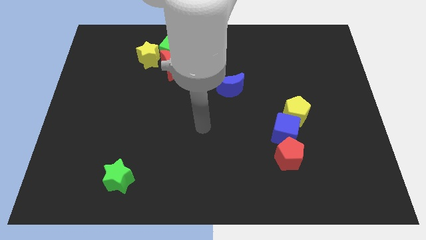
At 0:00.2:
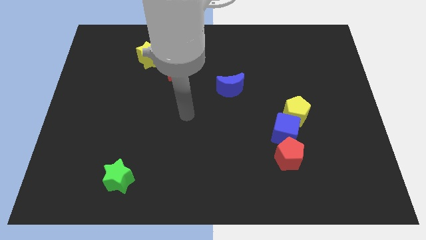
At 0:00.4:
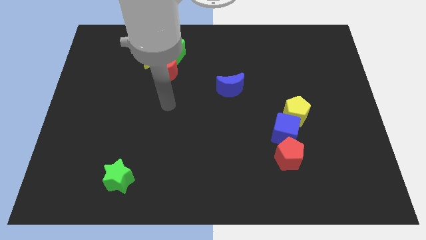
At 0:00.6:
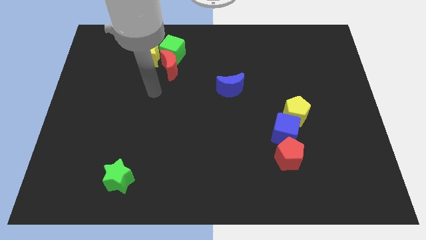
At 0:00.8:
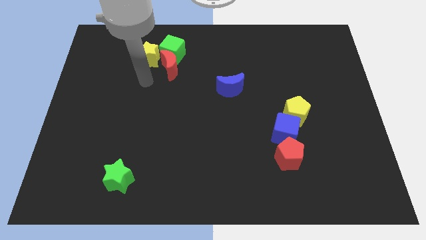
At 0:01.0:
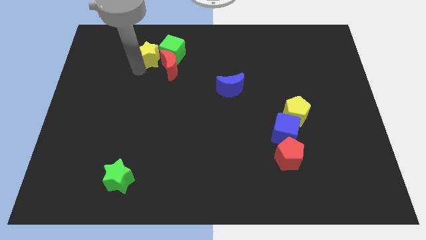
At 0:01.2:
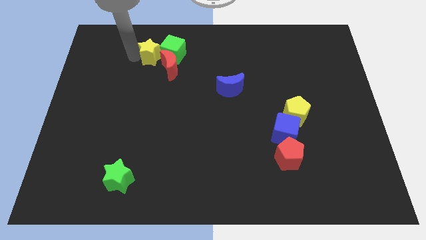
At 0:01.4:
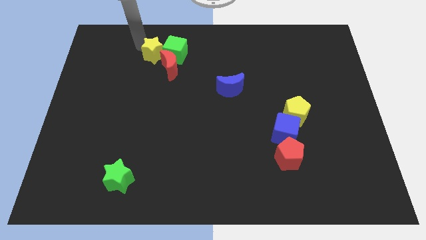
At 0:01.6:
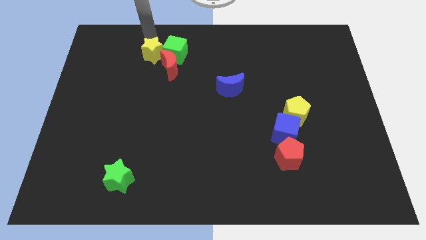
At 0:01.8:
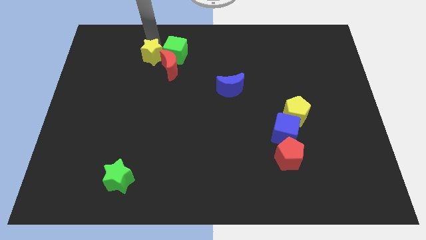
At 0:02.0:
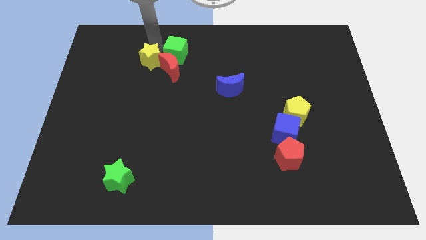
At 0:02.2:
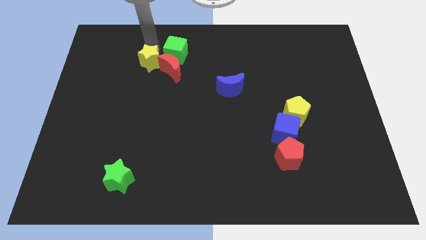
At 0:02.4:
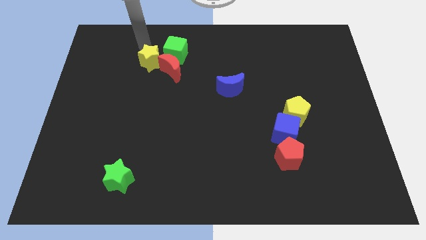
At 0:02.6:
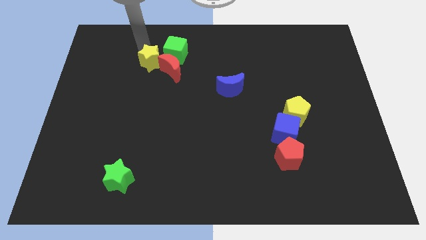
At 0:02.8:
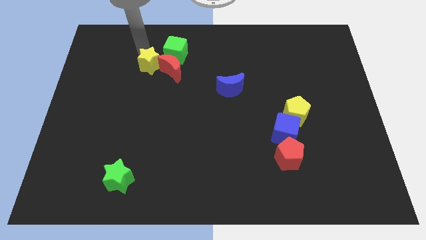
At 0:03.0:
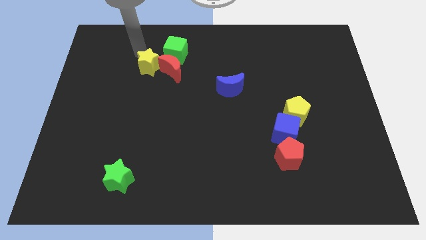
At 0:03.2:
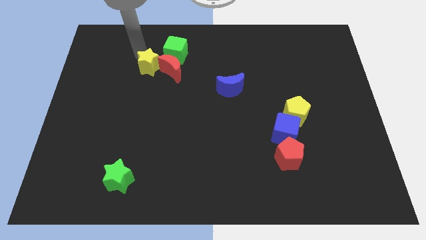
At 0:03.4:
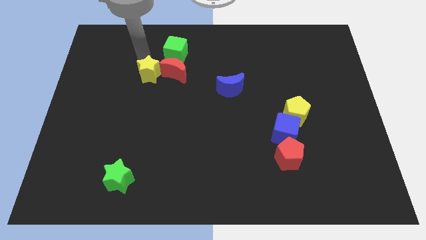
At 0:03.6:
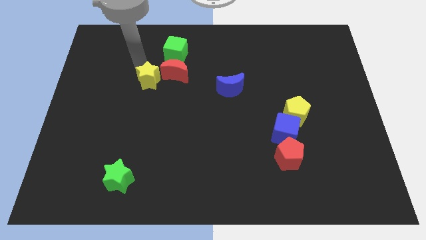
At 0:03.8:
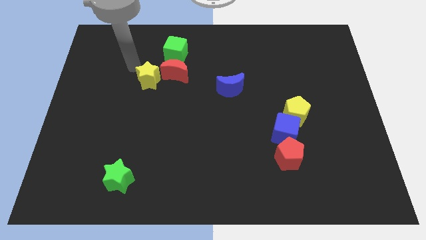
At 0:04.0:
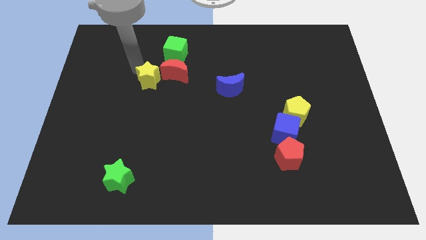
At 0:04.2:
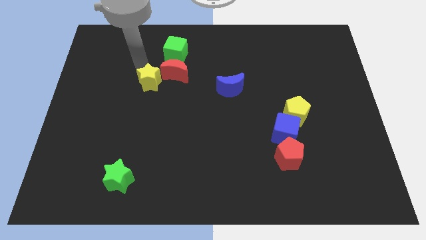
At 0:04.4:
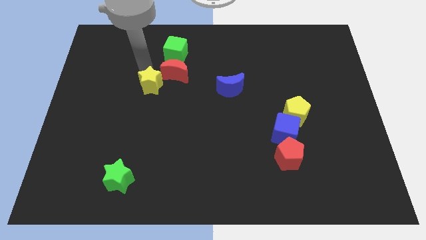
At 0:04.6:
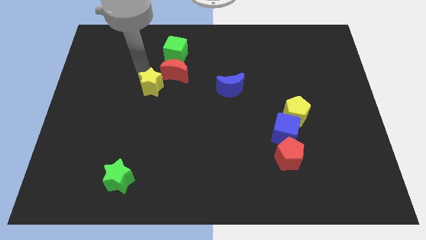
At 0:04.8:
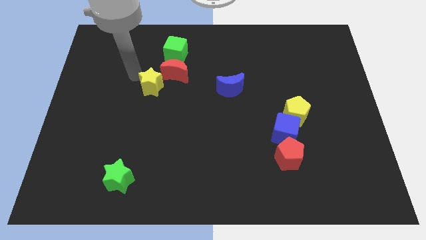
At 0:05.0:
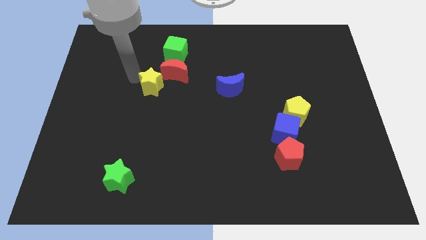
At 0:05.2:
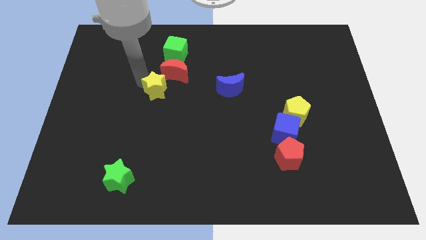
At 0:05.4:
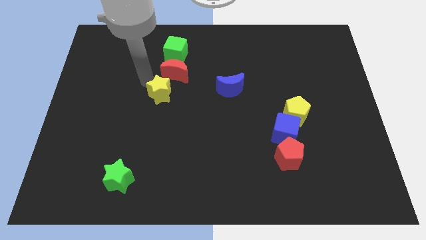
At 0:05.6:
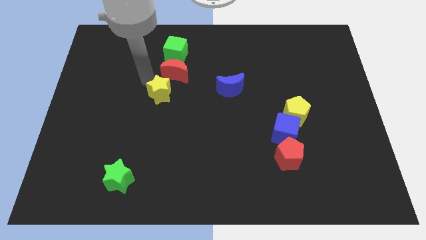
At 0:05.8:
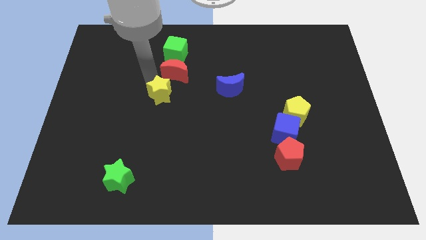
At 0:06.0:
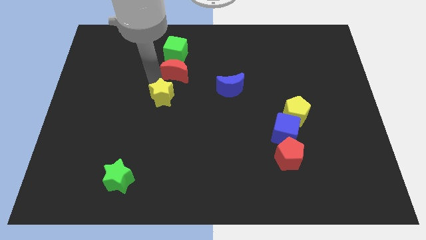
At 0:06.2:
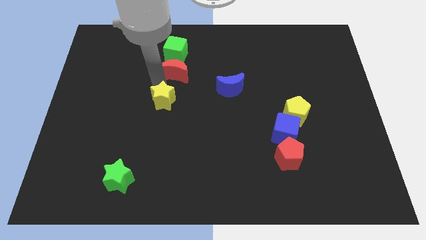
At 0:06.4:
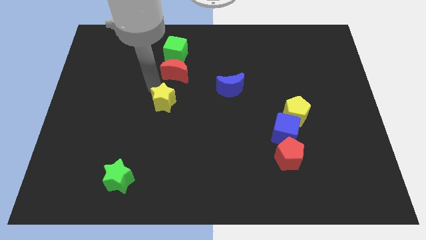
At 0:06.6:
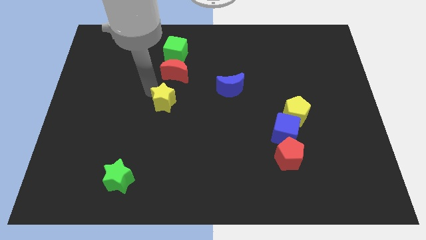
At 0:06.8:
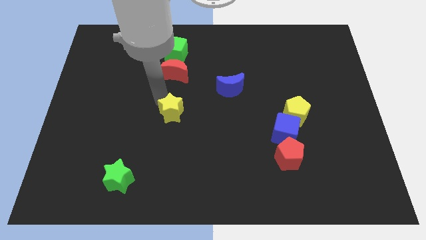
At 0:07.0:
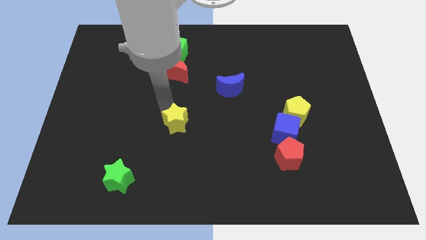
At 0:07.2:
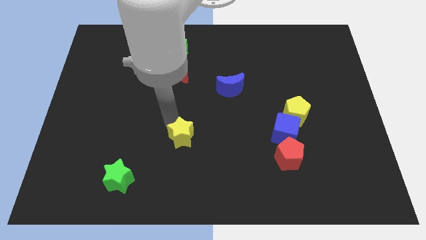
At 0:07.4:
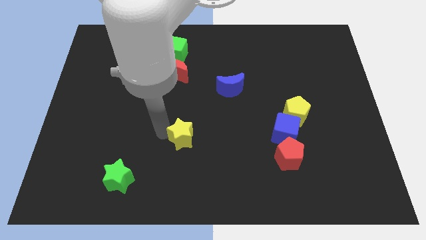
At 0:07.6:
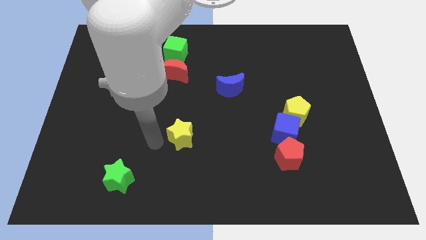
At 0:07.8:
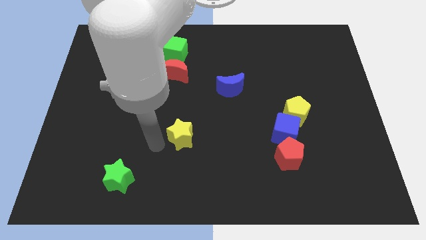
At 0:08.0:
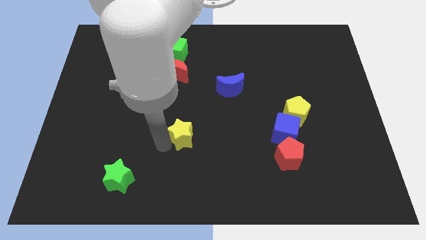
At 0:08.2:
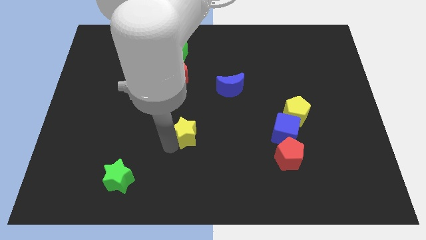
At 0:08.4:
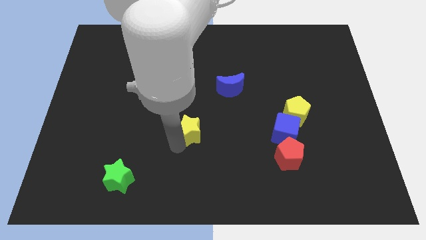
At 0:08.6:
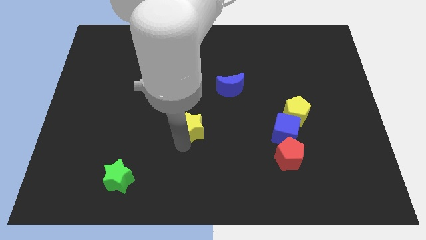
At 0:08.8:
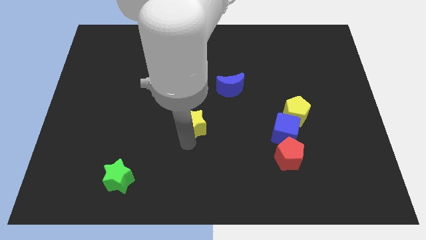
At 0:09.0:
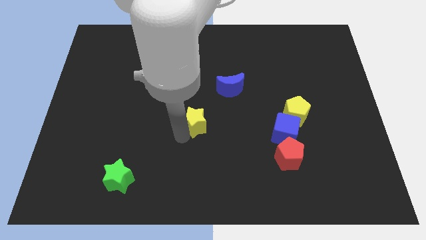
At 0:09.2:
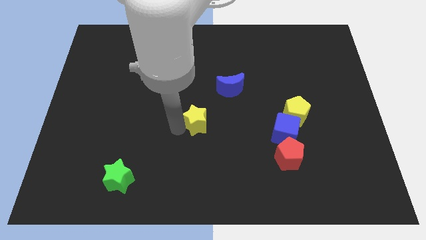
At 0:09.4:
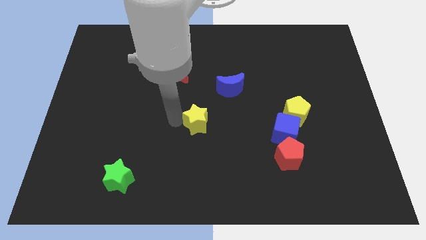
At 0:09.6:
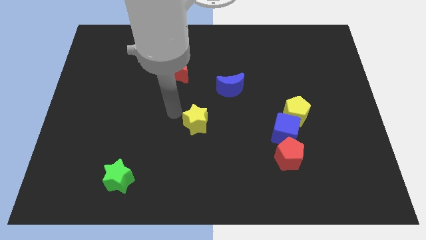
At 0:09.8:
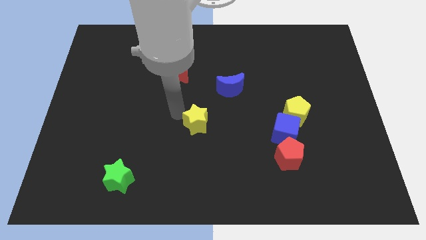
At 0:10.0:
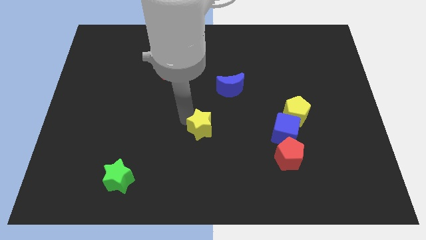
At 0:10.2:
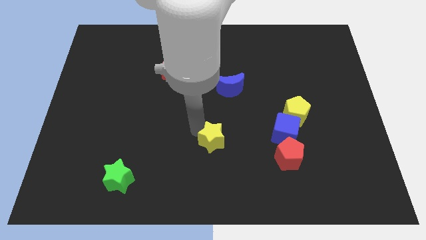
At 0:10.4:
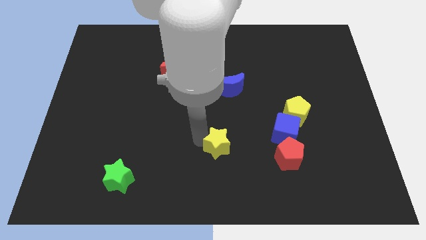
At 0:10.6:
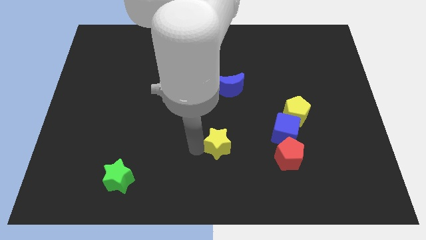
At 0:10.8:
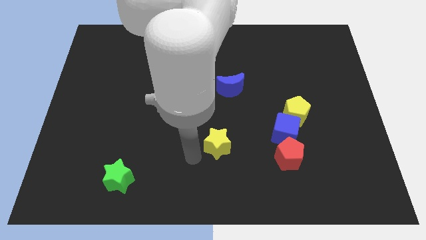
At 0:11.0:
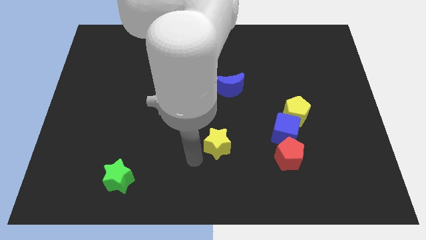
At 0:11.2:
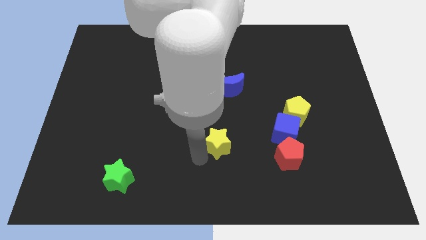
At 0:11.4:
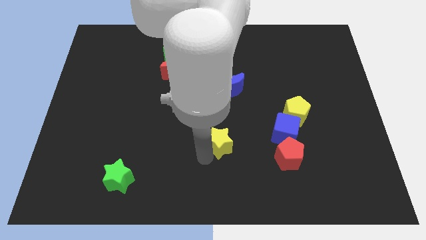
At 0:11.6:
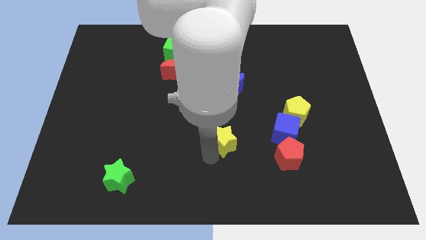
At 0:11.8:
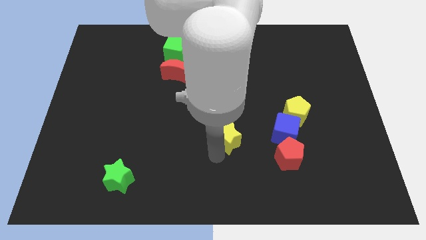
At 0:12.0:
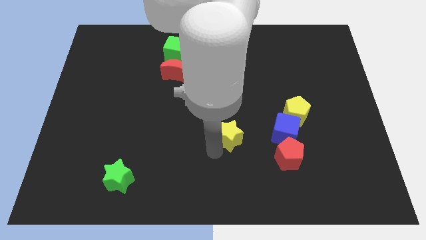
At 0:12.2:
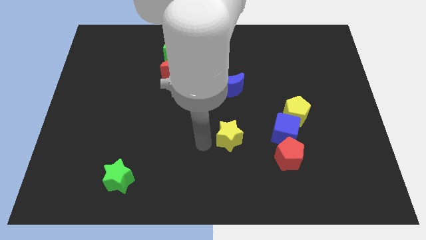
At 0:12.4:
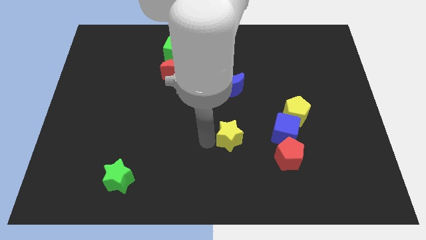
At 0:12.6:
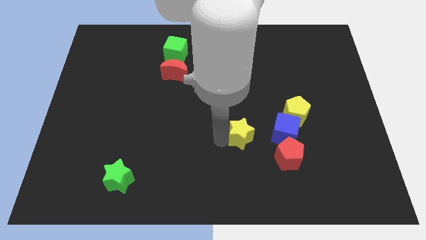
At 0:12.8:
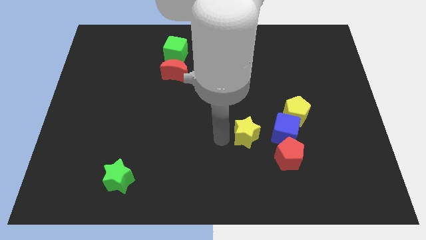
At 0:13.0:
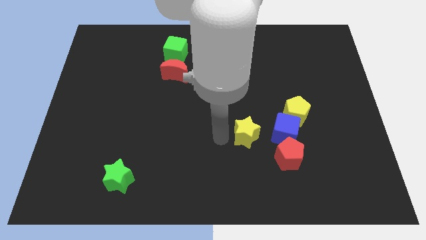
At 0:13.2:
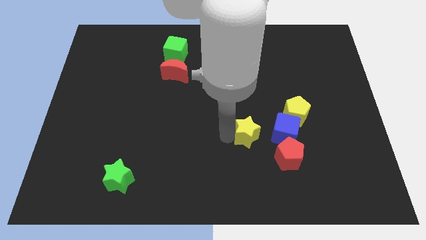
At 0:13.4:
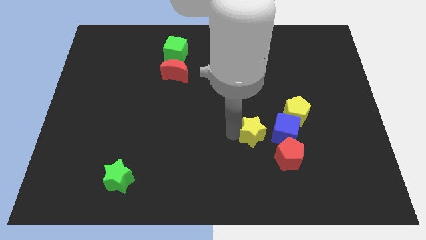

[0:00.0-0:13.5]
move the yellow star to the bottom left side of the yellow pentagon
